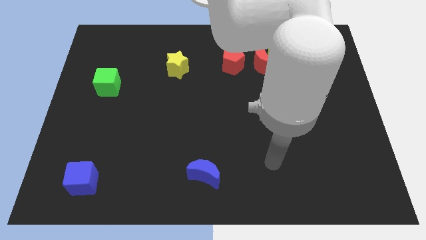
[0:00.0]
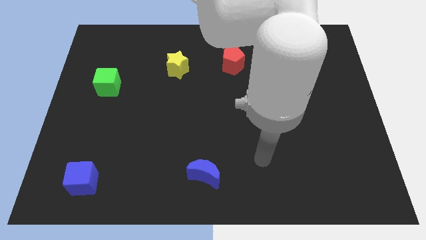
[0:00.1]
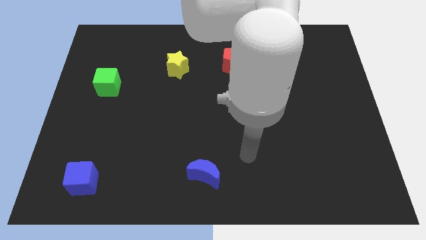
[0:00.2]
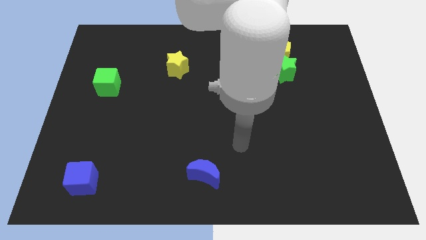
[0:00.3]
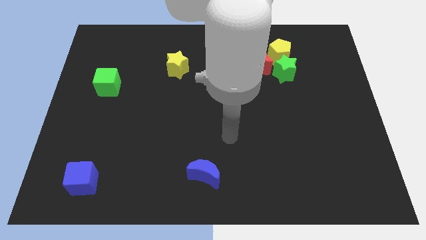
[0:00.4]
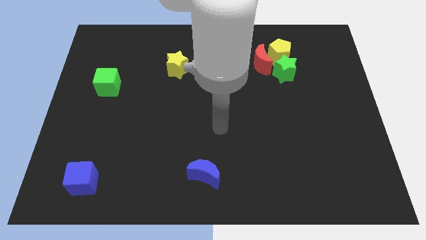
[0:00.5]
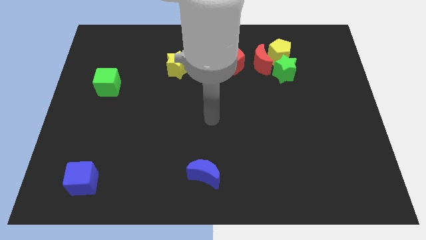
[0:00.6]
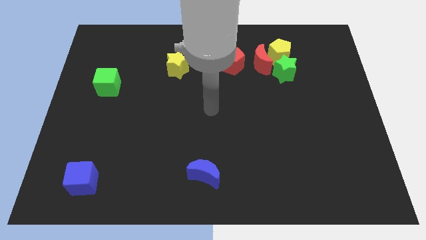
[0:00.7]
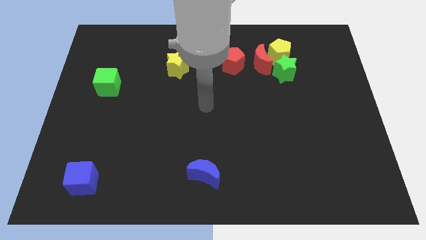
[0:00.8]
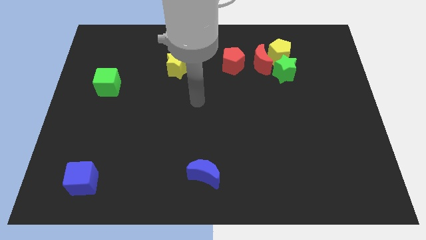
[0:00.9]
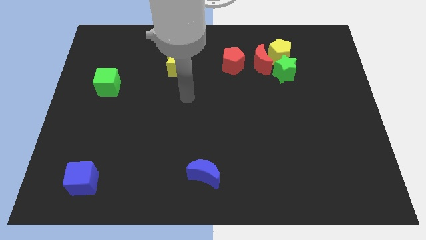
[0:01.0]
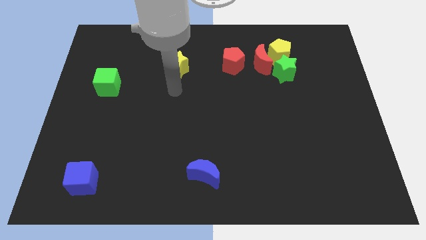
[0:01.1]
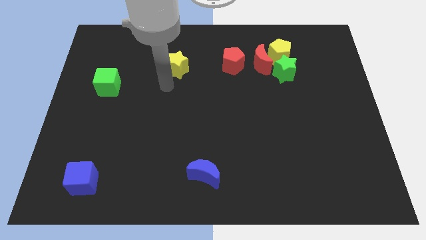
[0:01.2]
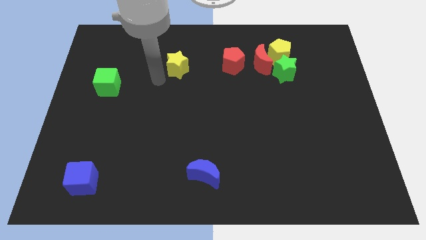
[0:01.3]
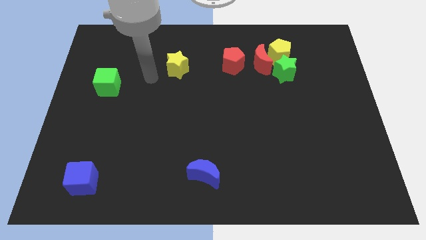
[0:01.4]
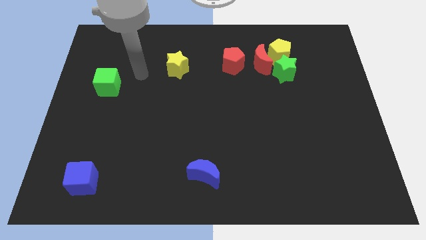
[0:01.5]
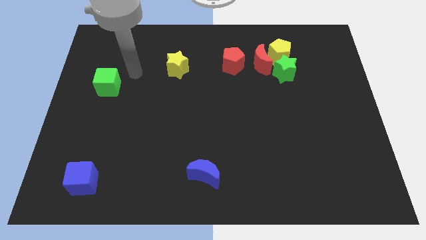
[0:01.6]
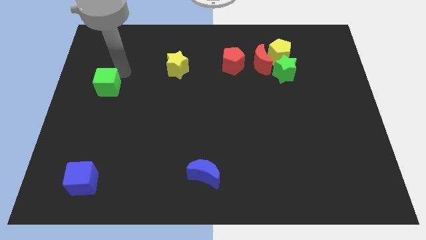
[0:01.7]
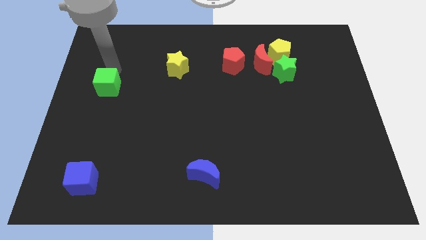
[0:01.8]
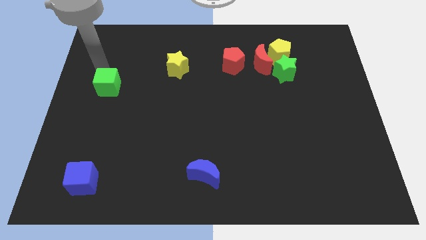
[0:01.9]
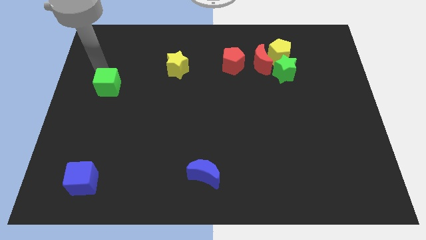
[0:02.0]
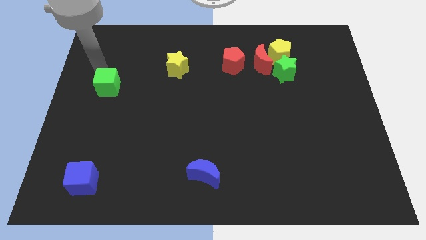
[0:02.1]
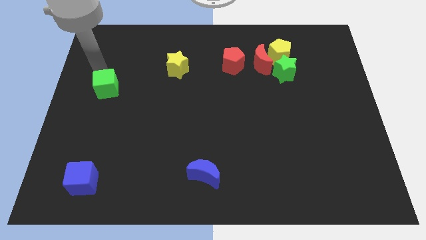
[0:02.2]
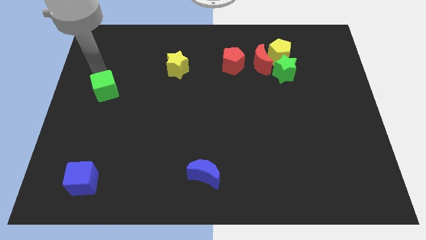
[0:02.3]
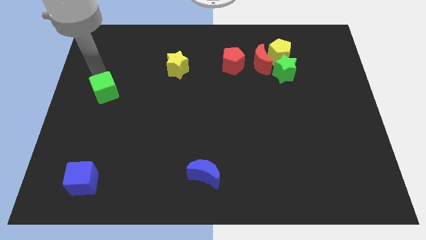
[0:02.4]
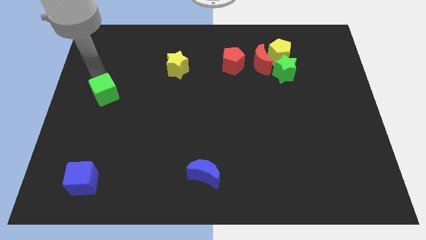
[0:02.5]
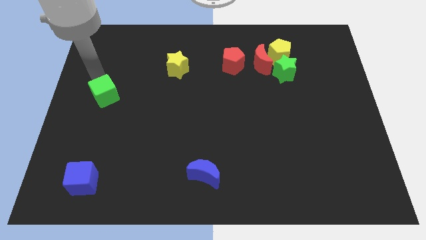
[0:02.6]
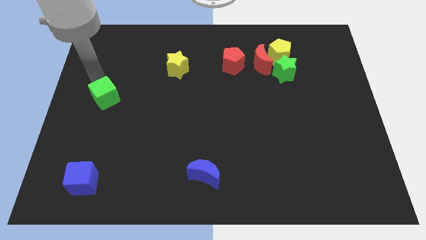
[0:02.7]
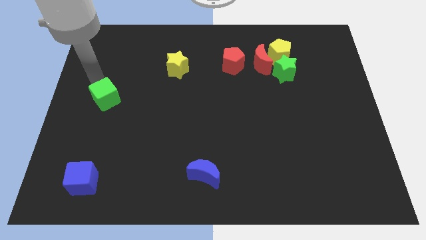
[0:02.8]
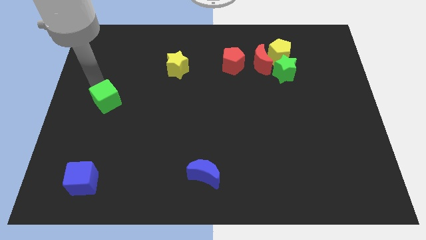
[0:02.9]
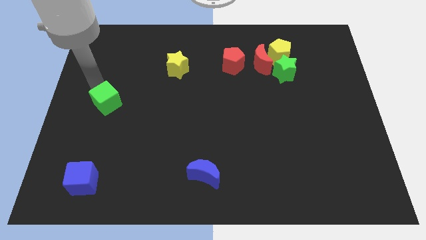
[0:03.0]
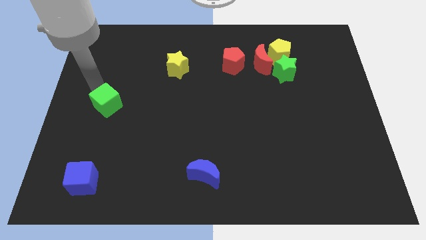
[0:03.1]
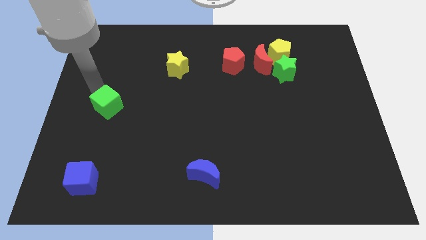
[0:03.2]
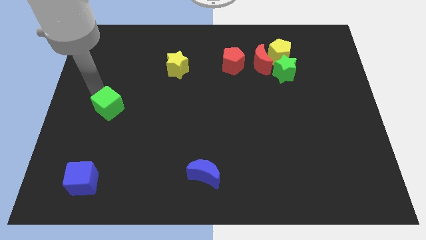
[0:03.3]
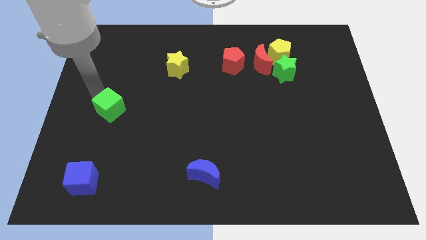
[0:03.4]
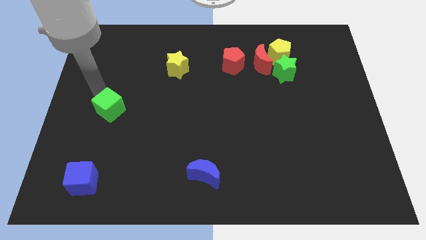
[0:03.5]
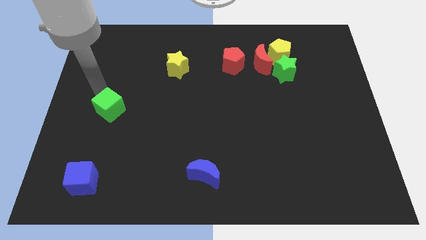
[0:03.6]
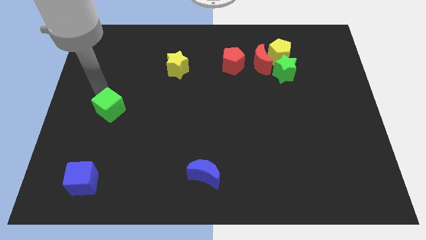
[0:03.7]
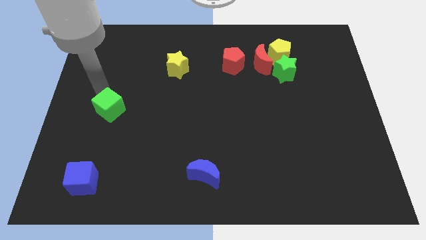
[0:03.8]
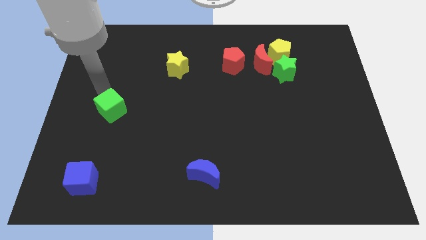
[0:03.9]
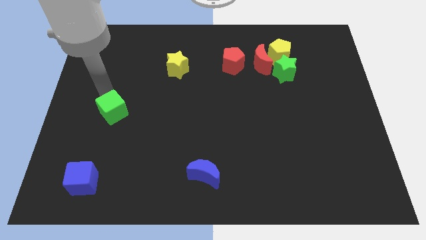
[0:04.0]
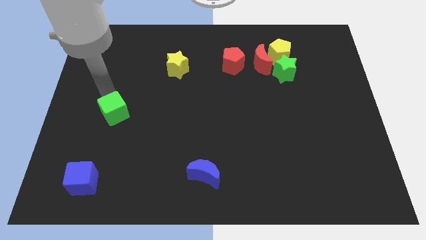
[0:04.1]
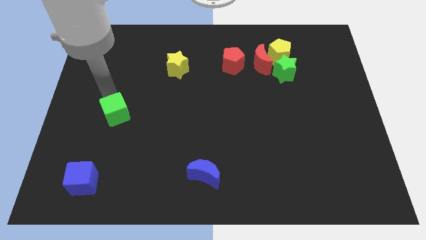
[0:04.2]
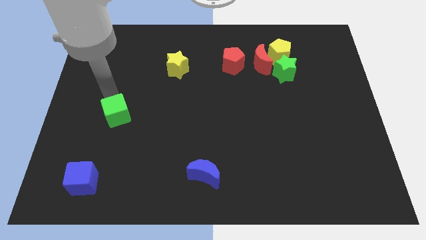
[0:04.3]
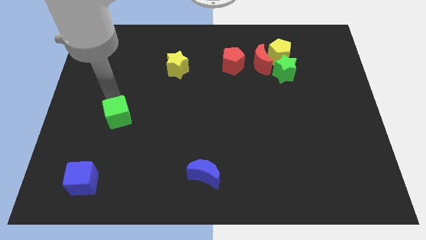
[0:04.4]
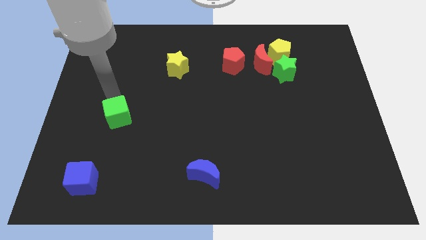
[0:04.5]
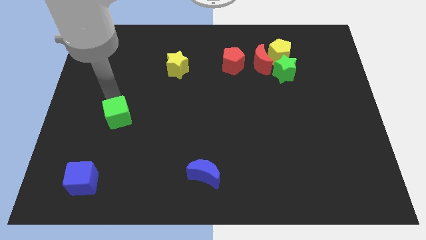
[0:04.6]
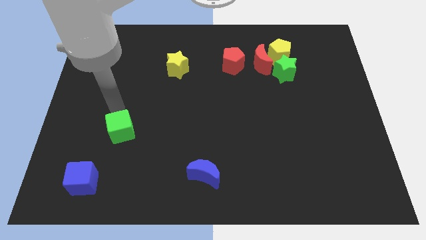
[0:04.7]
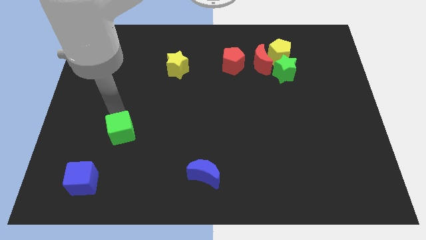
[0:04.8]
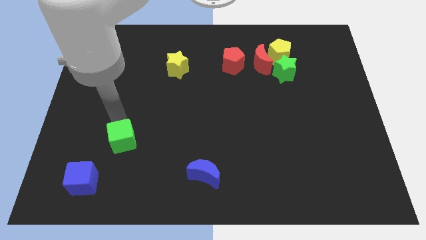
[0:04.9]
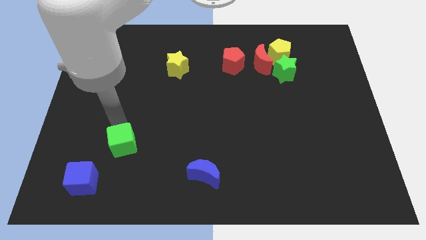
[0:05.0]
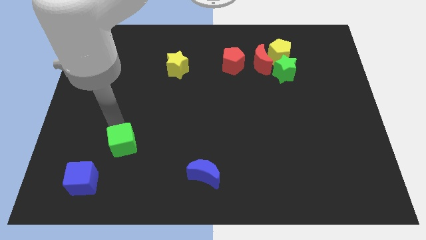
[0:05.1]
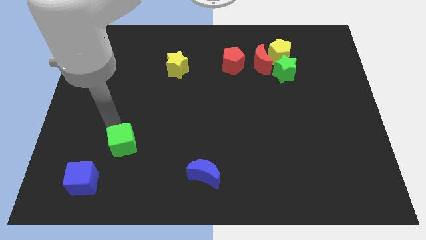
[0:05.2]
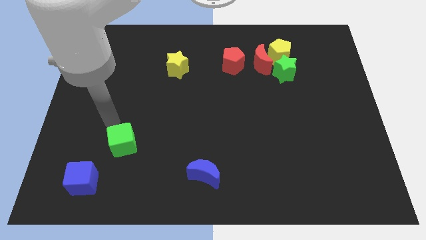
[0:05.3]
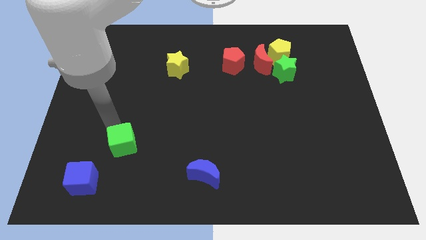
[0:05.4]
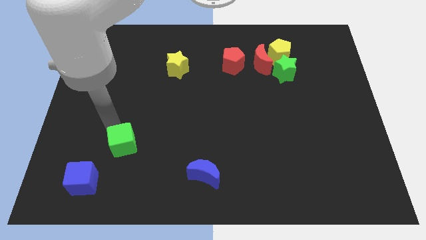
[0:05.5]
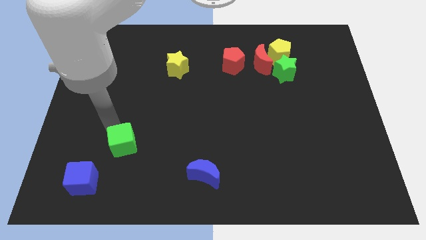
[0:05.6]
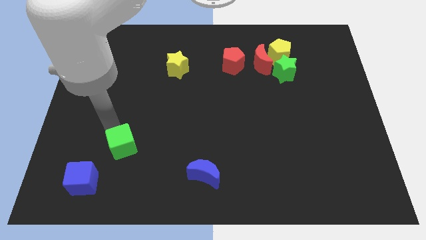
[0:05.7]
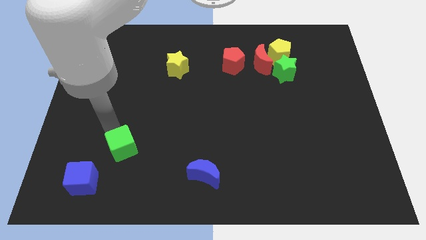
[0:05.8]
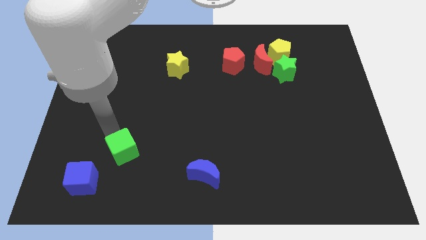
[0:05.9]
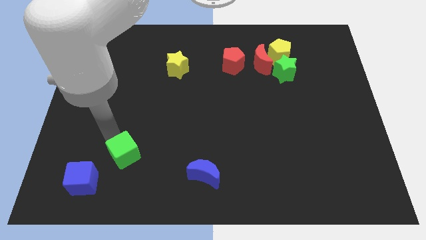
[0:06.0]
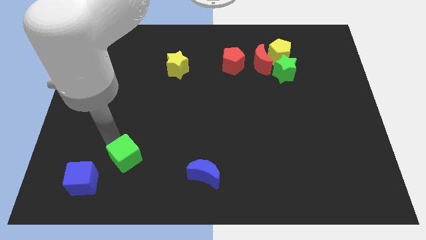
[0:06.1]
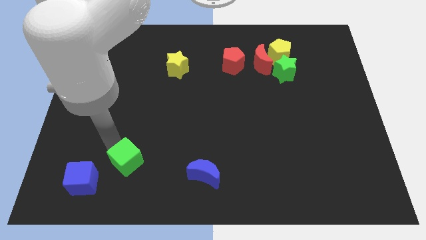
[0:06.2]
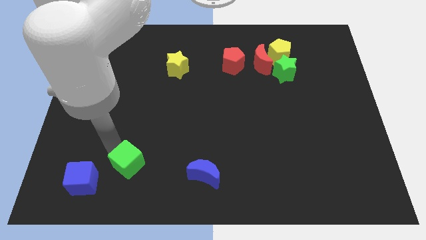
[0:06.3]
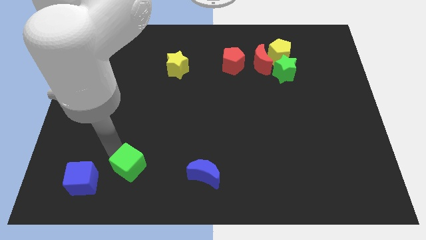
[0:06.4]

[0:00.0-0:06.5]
push the green cube left of the blue moon

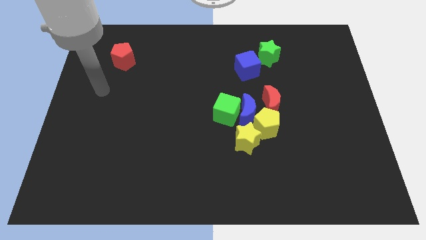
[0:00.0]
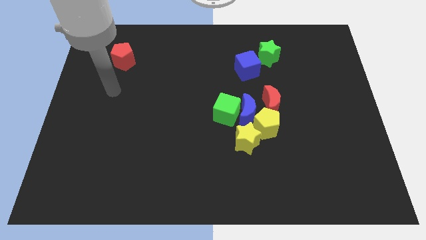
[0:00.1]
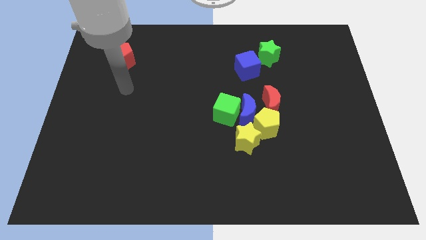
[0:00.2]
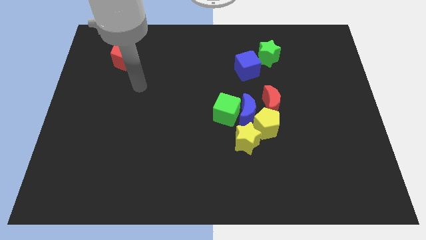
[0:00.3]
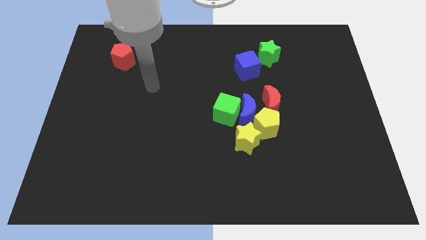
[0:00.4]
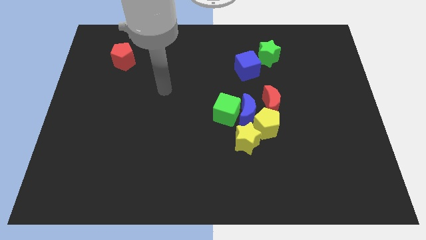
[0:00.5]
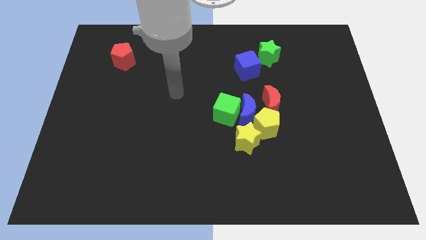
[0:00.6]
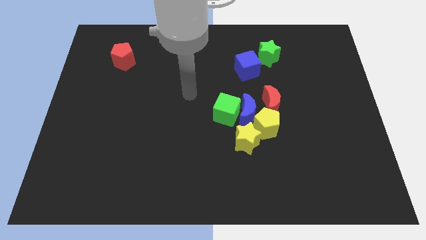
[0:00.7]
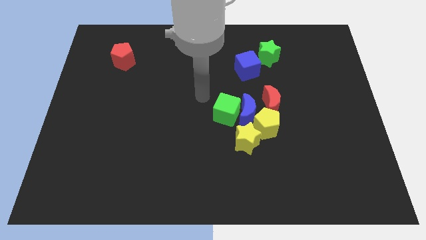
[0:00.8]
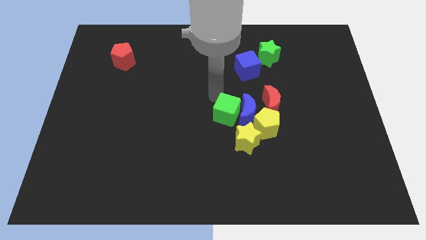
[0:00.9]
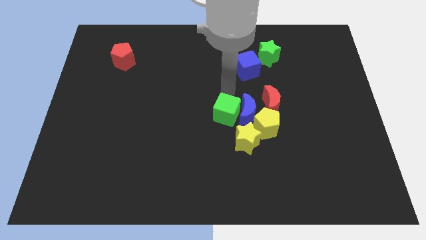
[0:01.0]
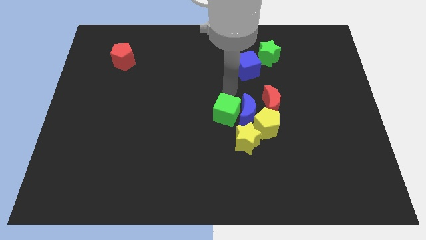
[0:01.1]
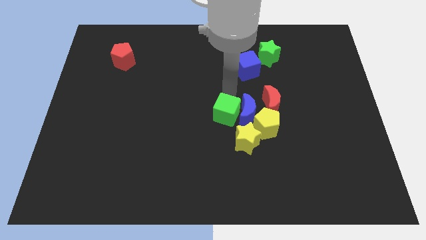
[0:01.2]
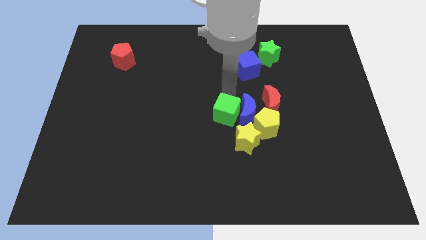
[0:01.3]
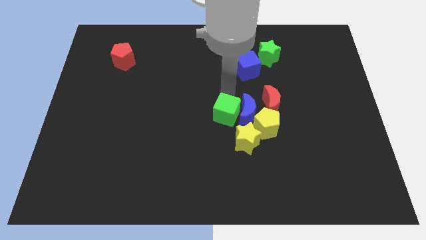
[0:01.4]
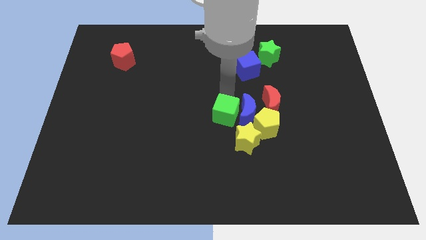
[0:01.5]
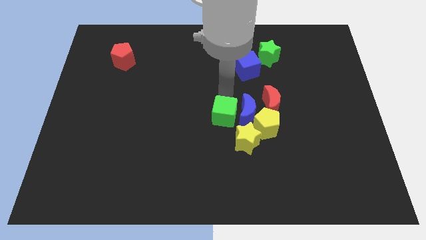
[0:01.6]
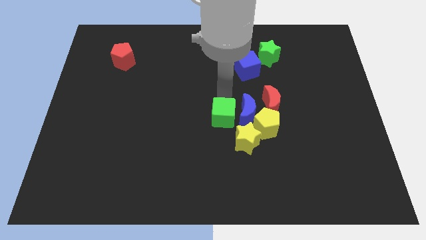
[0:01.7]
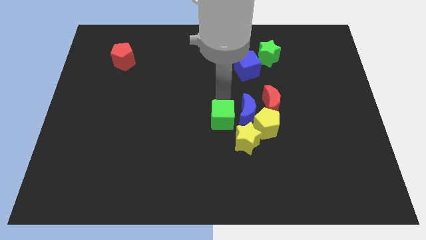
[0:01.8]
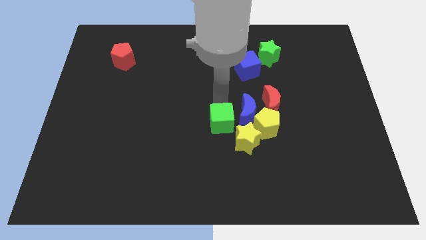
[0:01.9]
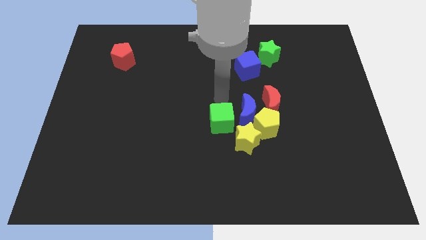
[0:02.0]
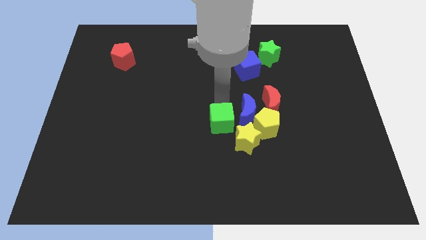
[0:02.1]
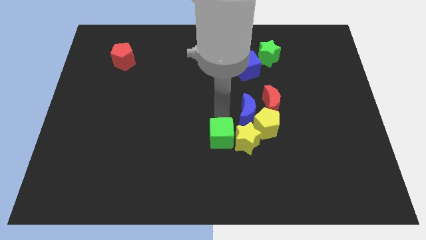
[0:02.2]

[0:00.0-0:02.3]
push the green cube to the bottom left of the yellow star
